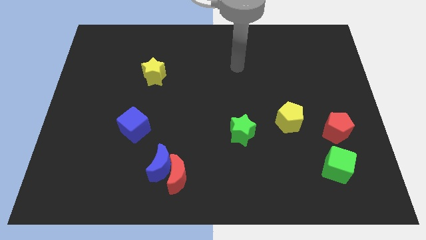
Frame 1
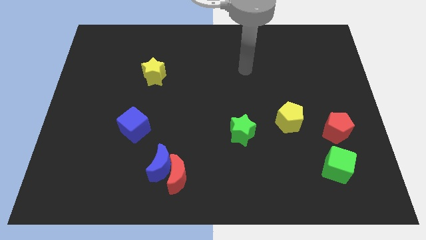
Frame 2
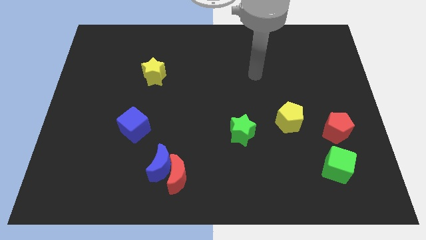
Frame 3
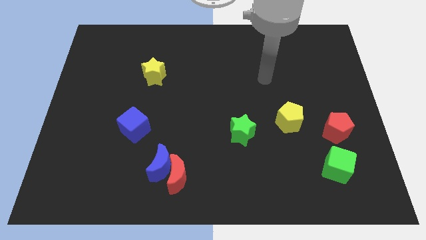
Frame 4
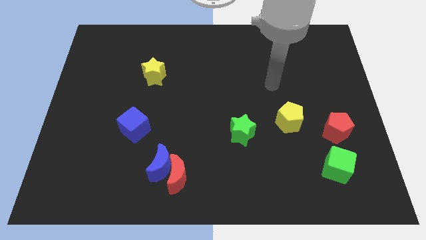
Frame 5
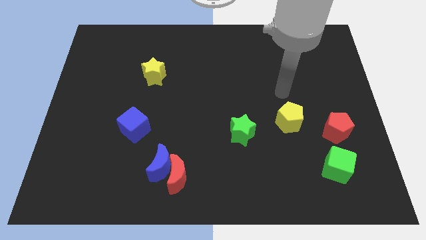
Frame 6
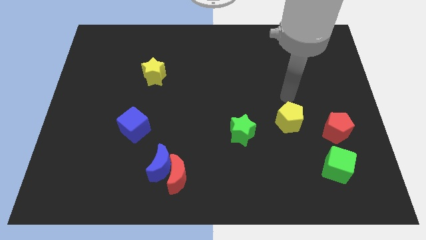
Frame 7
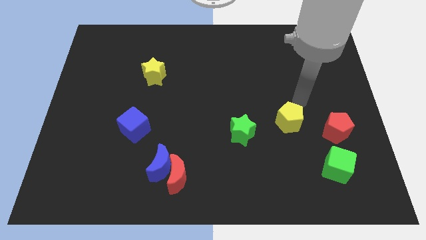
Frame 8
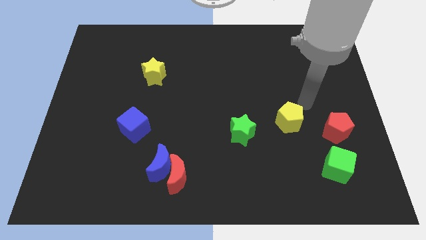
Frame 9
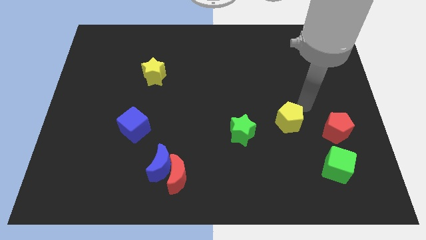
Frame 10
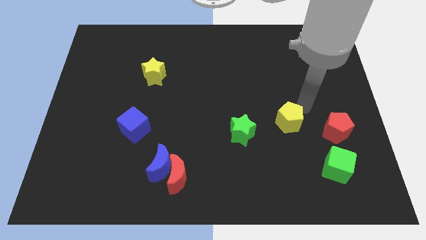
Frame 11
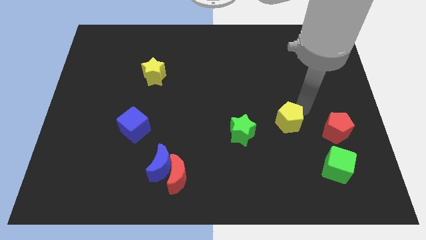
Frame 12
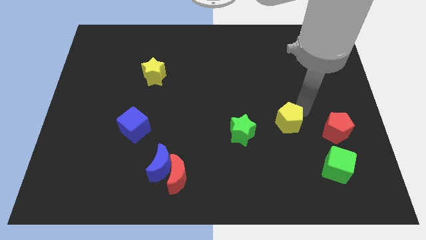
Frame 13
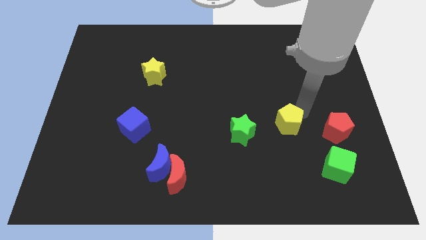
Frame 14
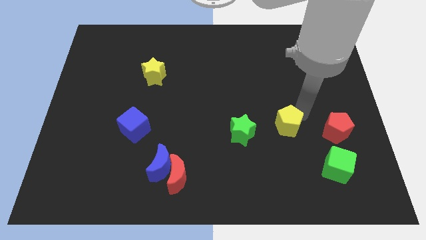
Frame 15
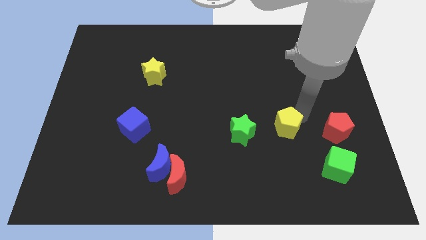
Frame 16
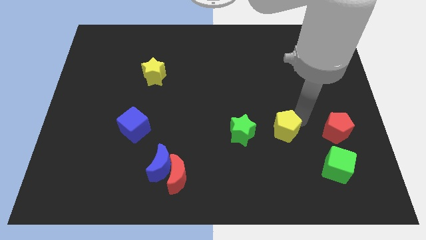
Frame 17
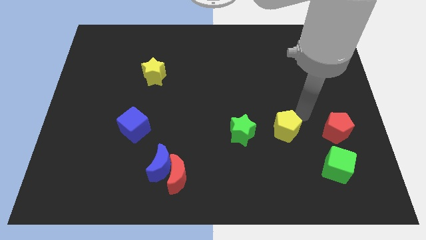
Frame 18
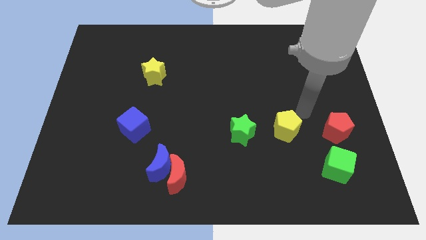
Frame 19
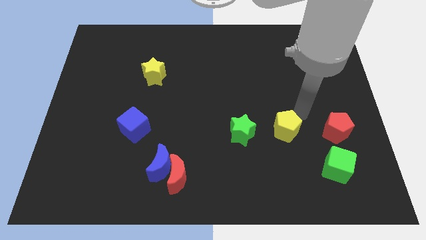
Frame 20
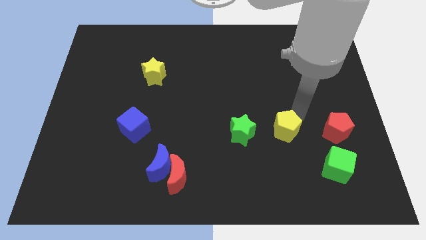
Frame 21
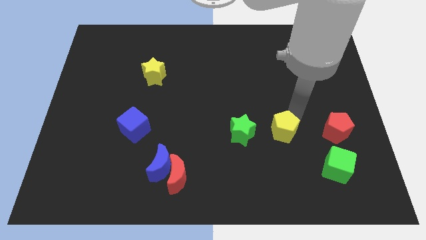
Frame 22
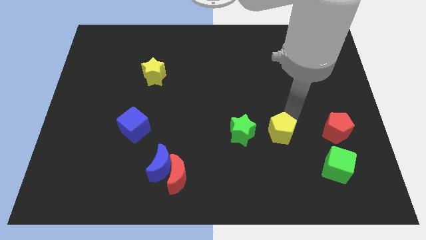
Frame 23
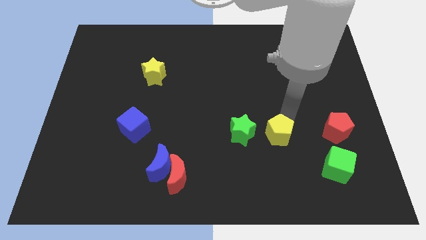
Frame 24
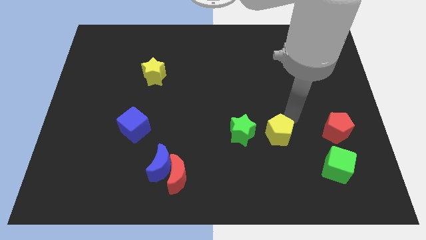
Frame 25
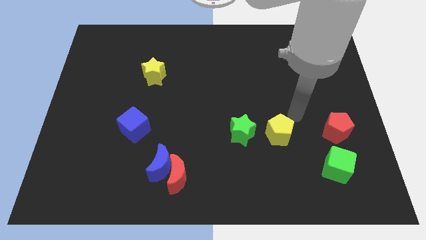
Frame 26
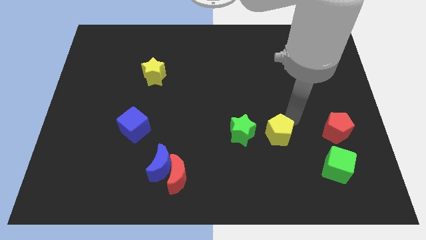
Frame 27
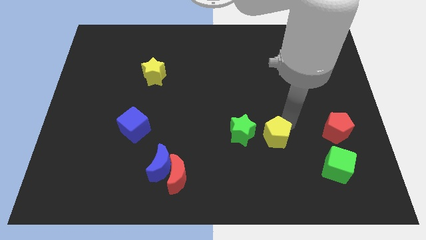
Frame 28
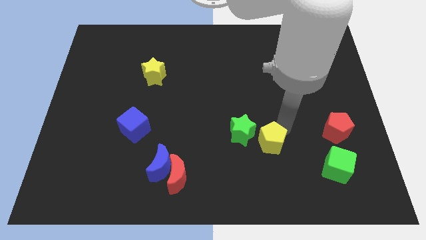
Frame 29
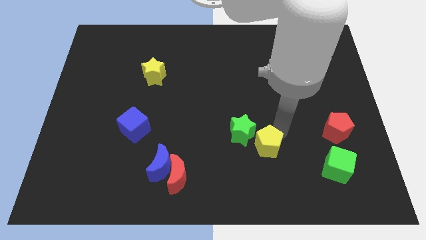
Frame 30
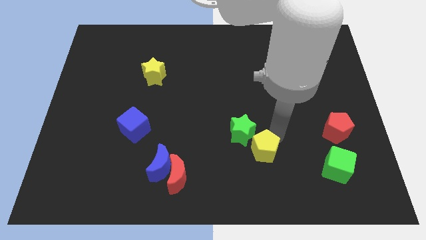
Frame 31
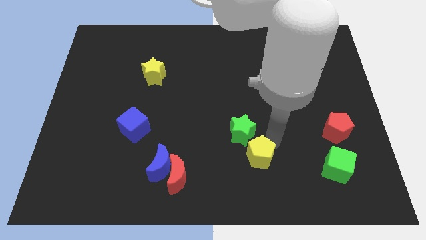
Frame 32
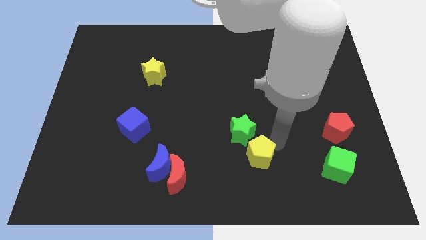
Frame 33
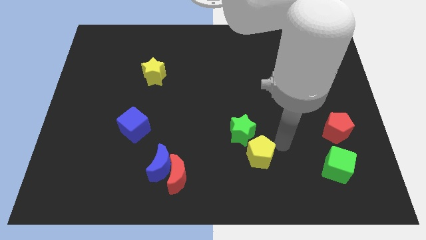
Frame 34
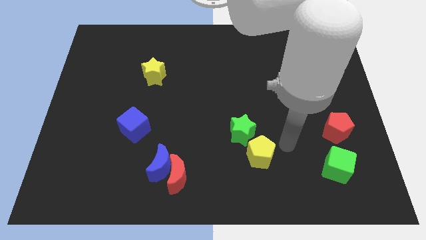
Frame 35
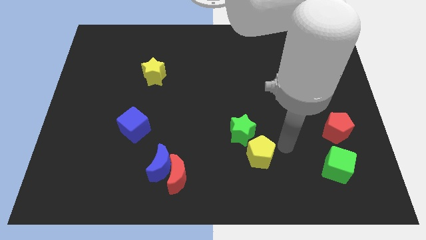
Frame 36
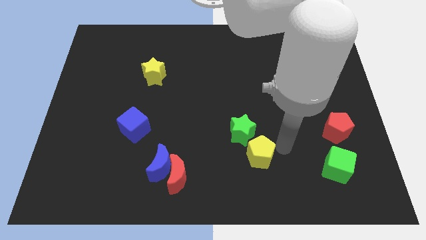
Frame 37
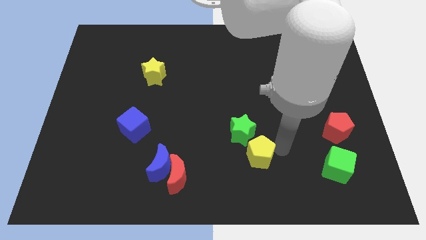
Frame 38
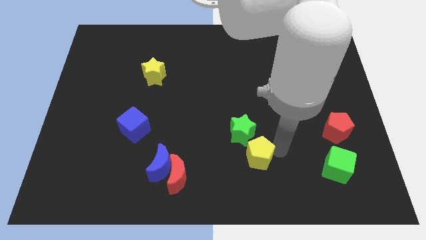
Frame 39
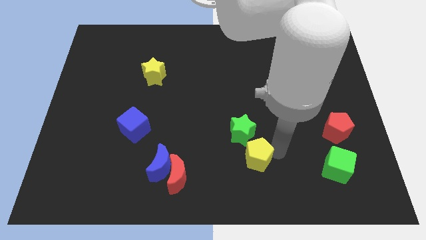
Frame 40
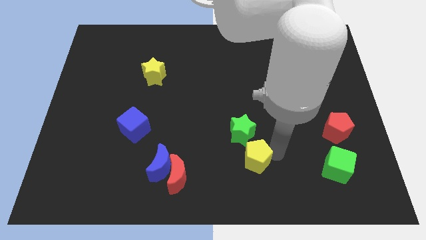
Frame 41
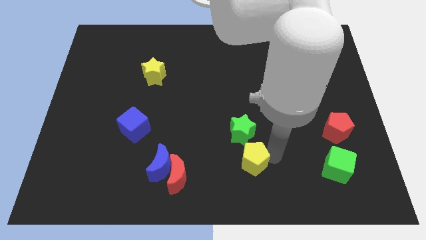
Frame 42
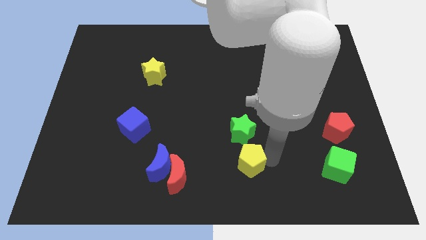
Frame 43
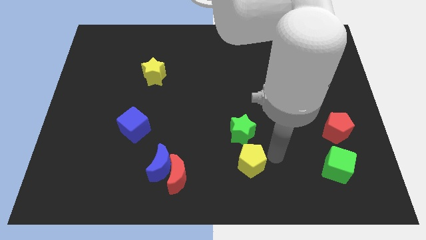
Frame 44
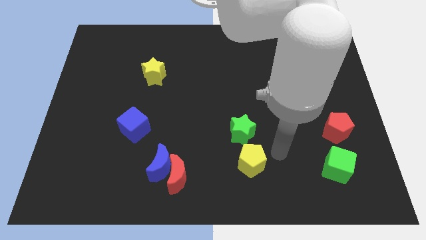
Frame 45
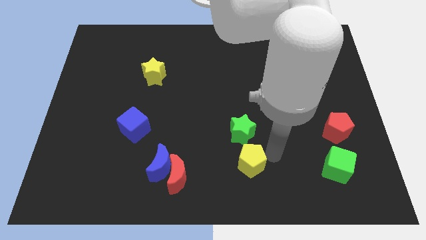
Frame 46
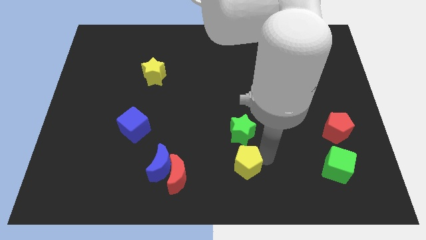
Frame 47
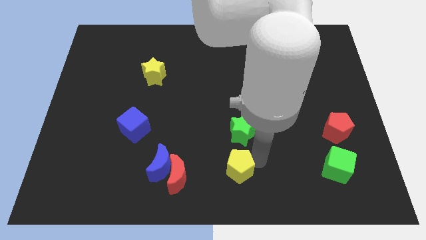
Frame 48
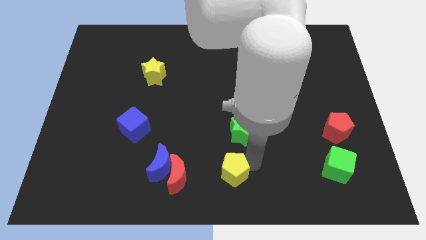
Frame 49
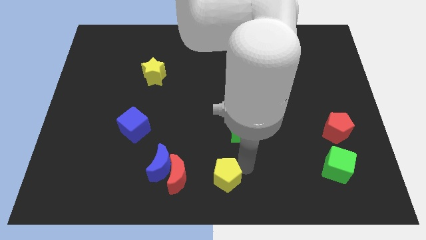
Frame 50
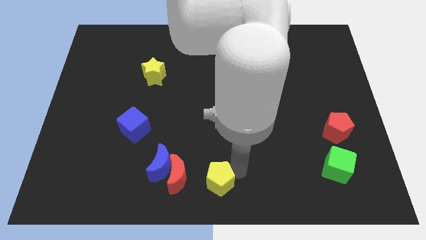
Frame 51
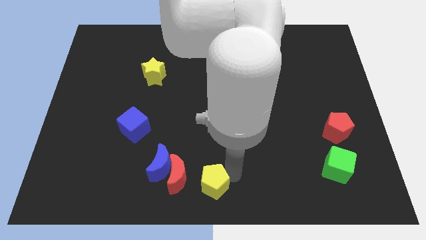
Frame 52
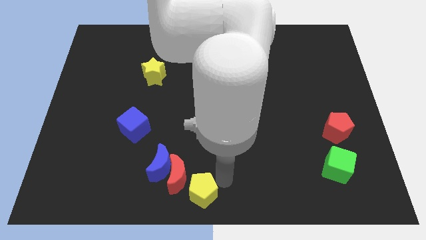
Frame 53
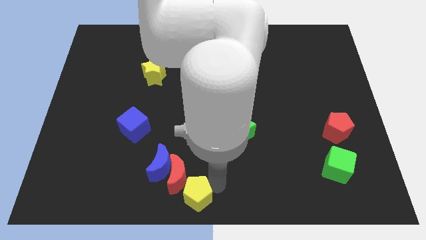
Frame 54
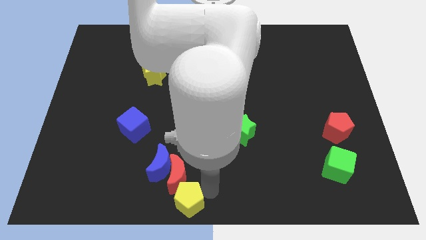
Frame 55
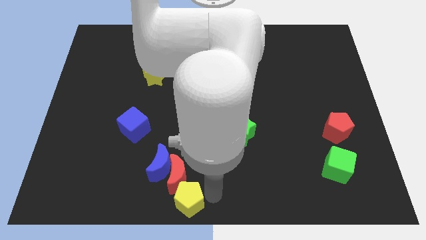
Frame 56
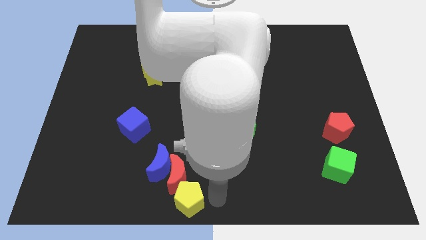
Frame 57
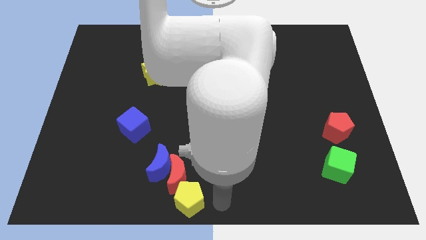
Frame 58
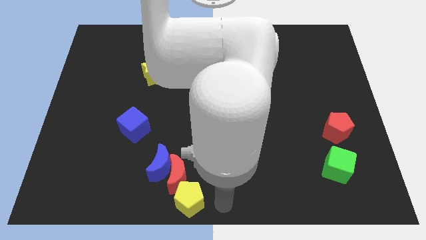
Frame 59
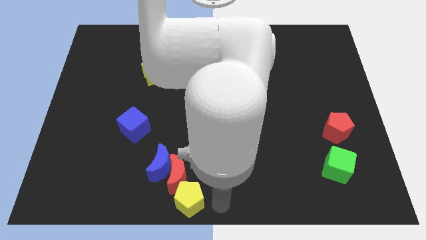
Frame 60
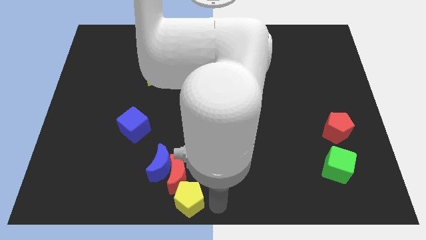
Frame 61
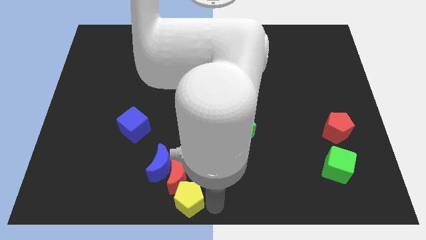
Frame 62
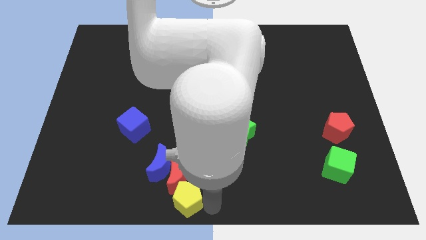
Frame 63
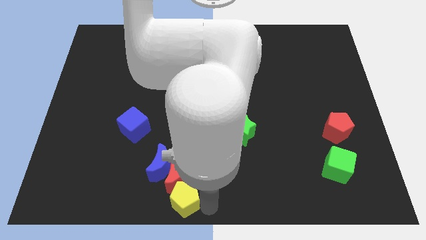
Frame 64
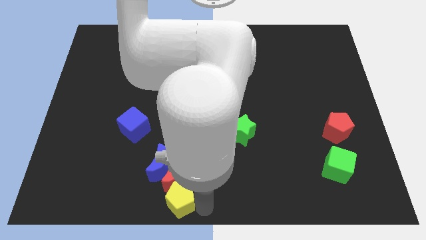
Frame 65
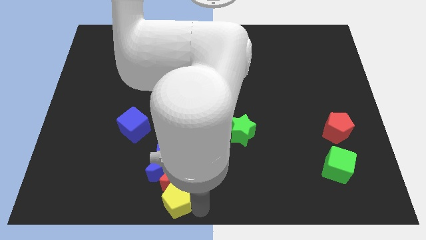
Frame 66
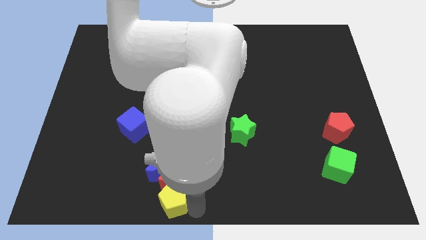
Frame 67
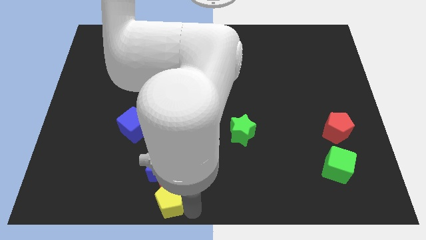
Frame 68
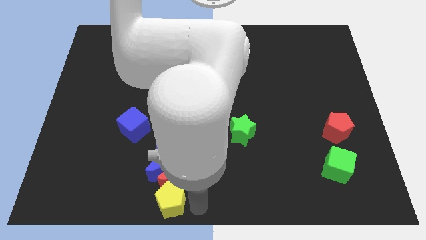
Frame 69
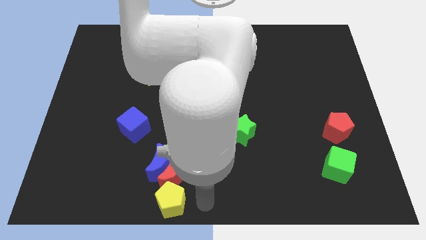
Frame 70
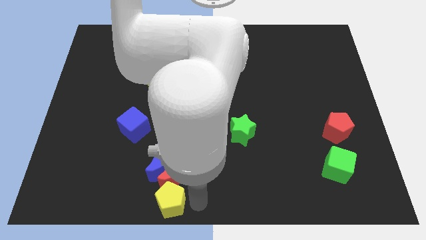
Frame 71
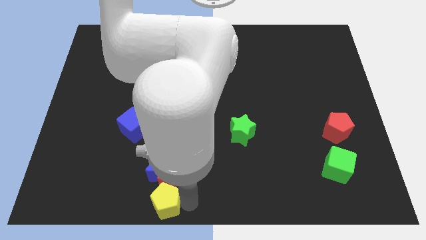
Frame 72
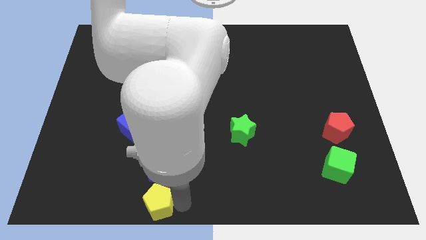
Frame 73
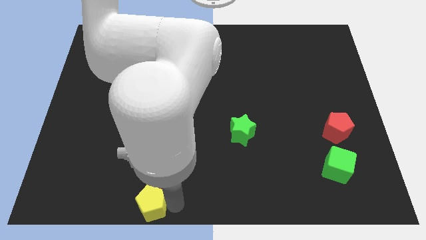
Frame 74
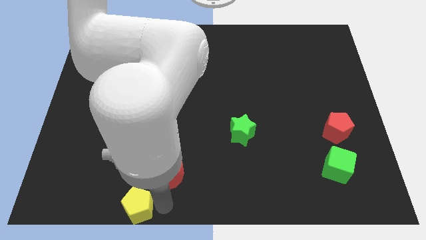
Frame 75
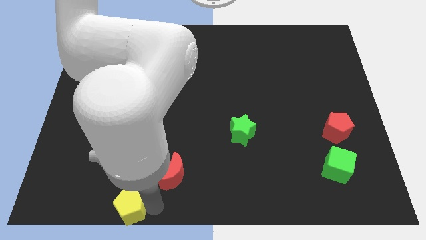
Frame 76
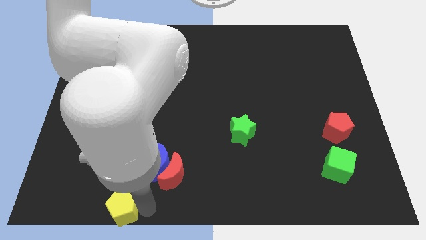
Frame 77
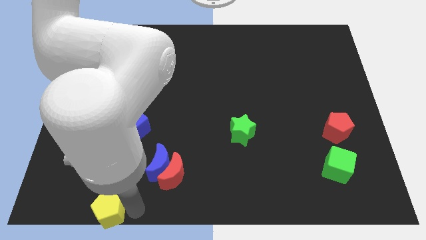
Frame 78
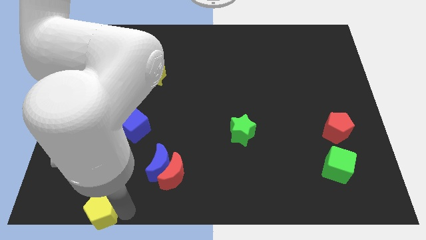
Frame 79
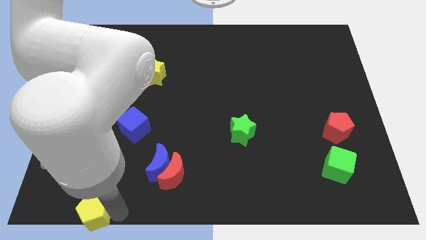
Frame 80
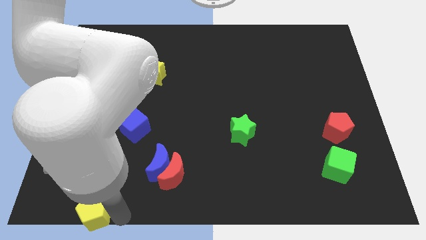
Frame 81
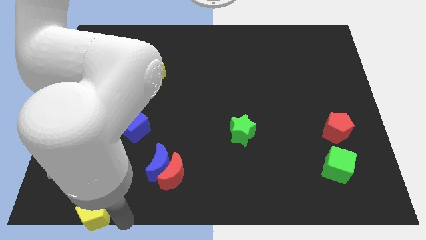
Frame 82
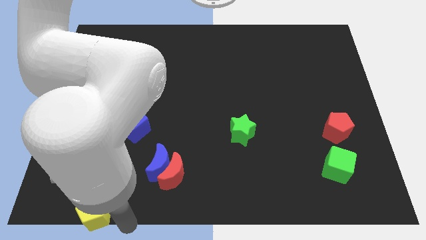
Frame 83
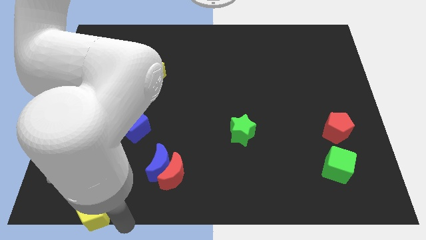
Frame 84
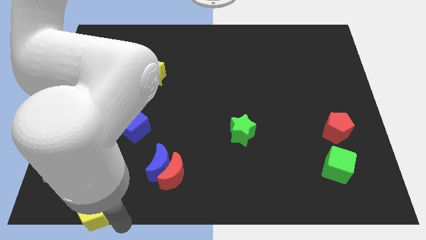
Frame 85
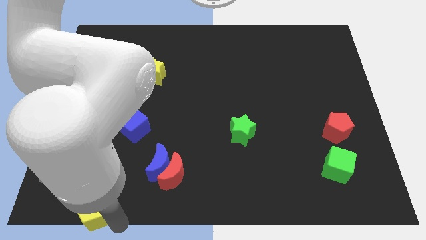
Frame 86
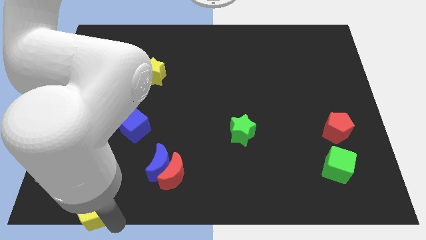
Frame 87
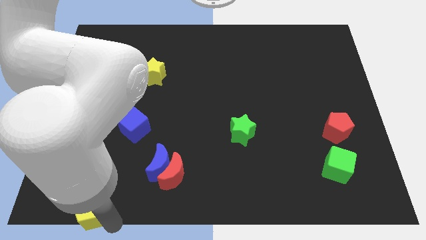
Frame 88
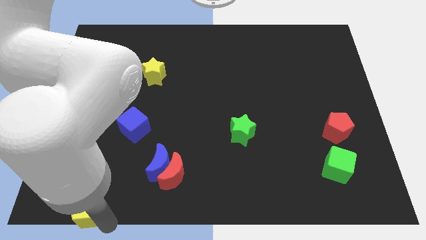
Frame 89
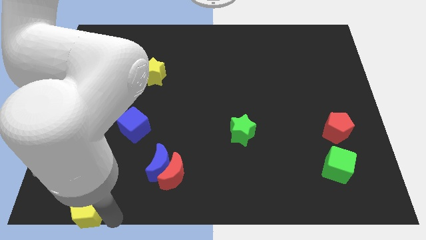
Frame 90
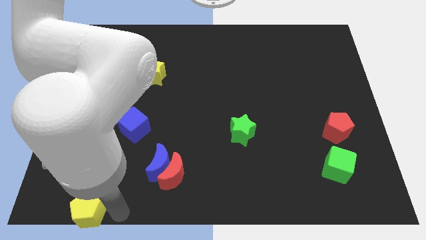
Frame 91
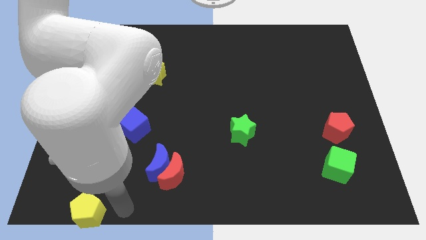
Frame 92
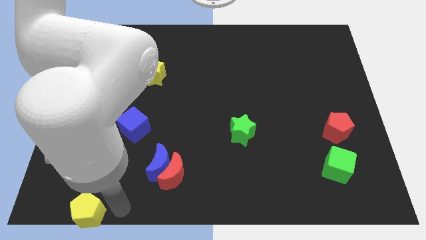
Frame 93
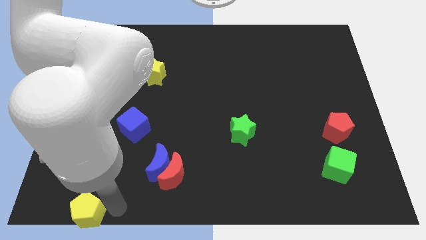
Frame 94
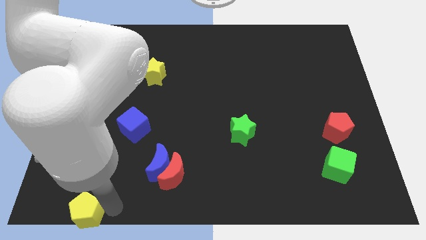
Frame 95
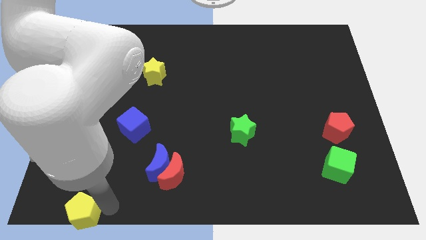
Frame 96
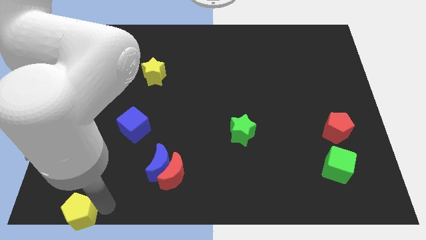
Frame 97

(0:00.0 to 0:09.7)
slide the yellow pentagon to the bottom left corner
